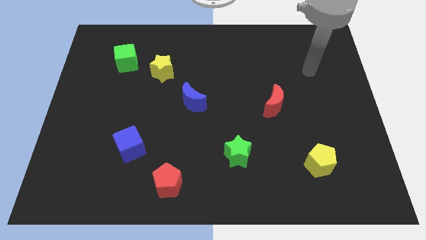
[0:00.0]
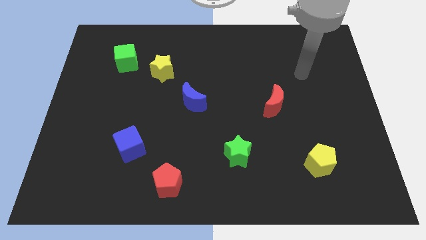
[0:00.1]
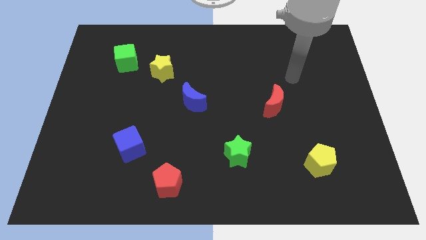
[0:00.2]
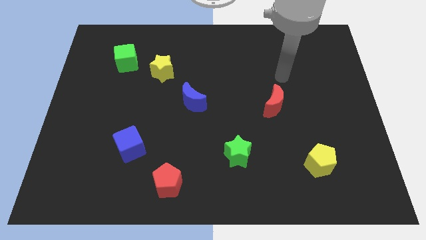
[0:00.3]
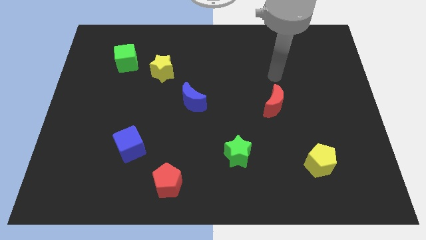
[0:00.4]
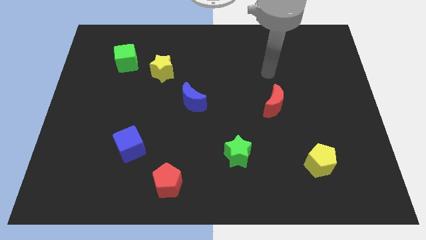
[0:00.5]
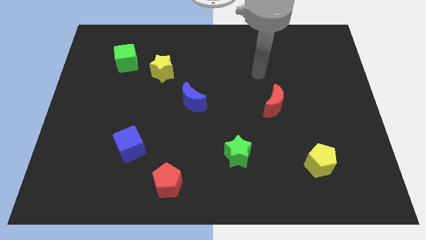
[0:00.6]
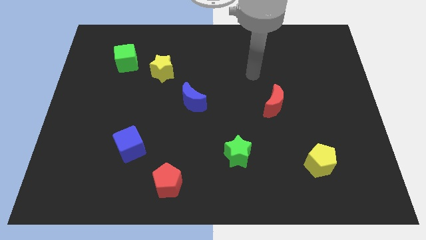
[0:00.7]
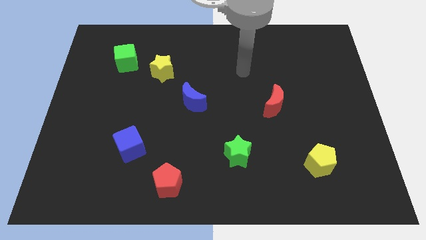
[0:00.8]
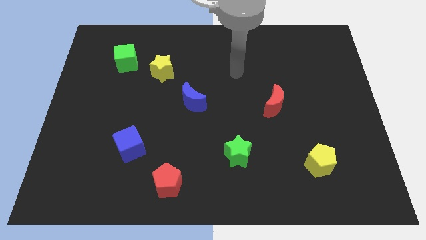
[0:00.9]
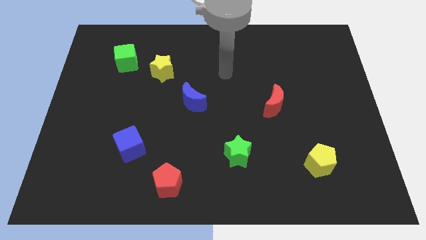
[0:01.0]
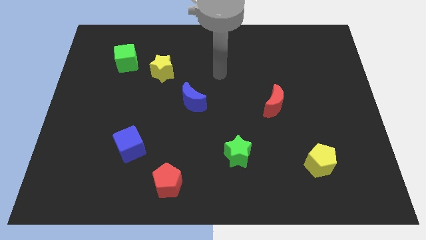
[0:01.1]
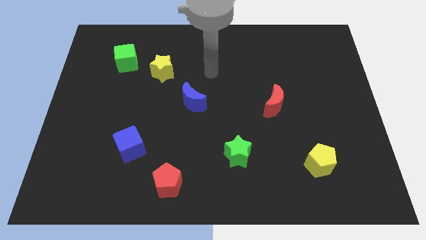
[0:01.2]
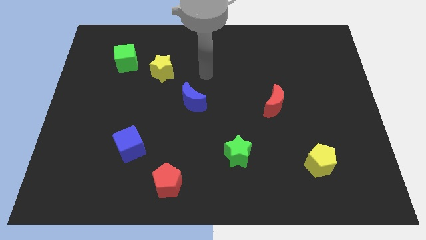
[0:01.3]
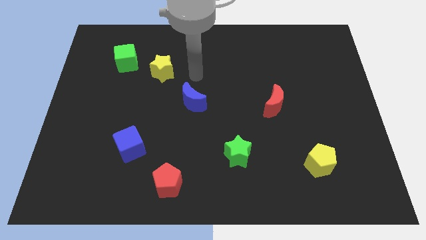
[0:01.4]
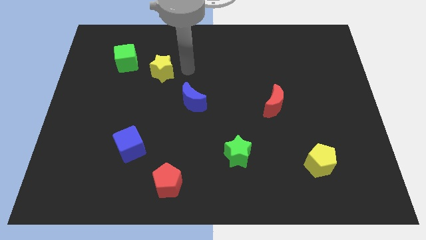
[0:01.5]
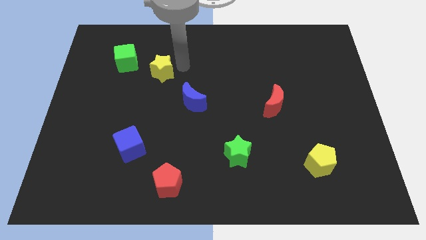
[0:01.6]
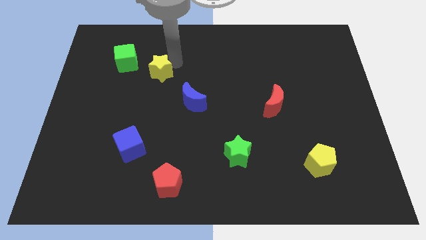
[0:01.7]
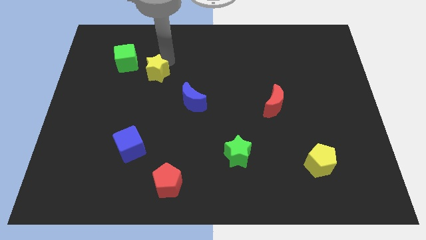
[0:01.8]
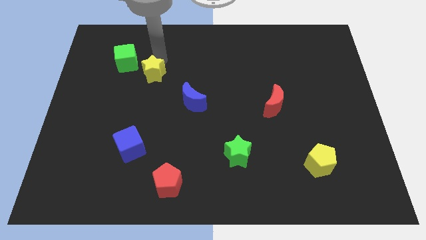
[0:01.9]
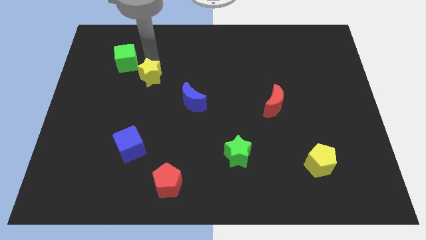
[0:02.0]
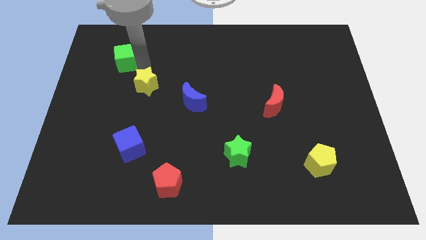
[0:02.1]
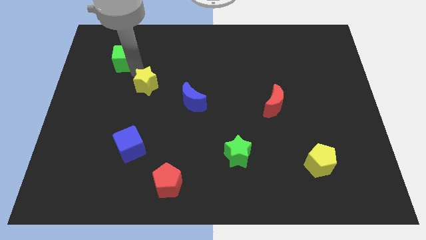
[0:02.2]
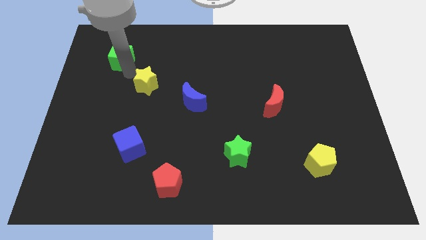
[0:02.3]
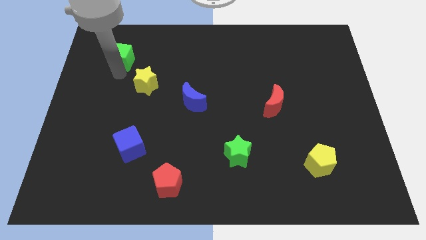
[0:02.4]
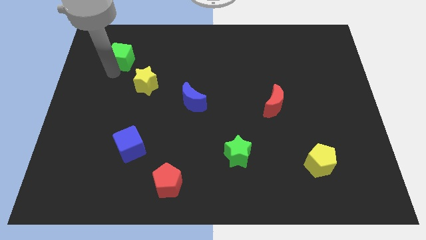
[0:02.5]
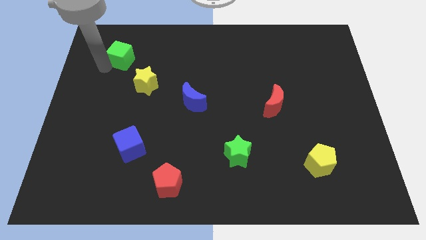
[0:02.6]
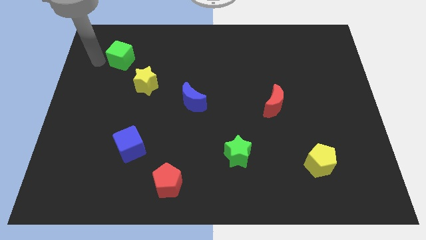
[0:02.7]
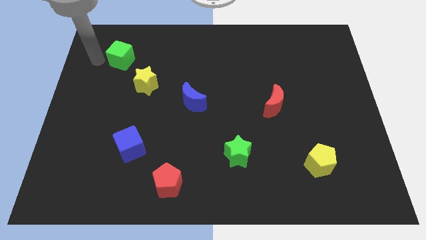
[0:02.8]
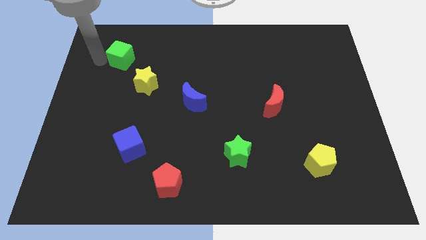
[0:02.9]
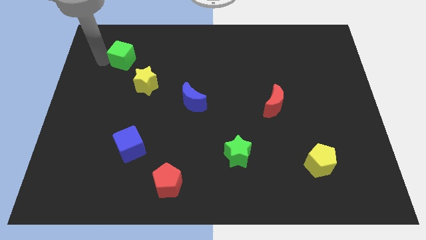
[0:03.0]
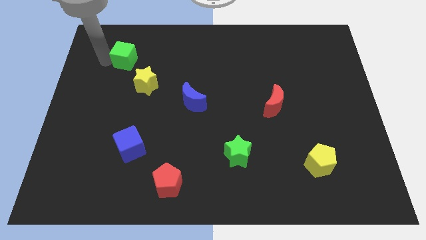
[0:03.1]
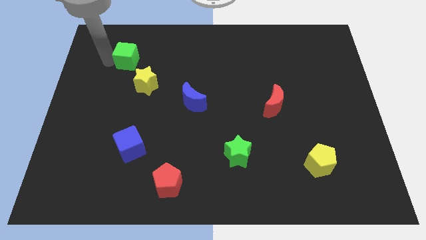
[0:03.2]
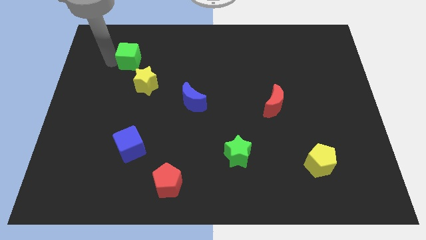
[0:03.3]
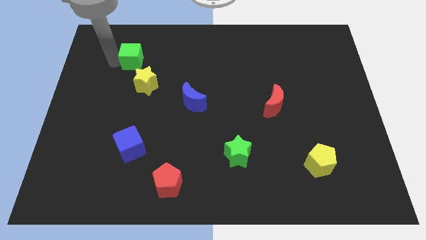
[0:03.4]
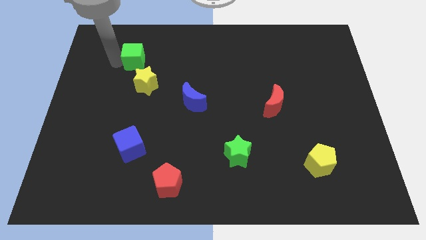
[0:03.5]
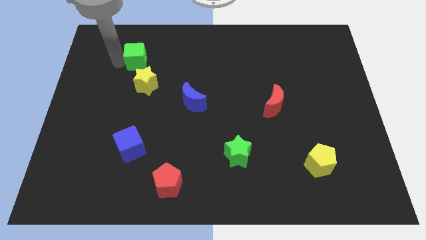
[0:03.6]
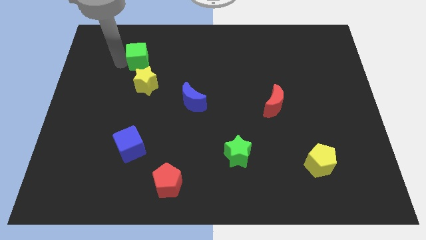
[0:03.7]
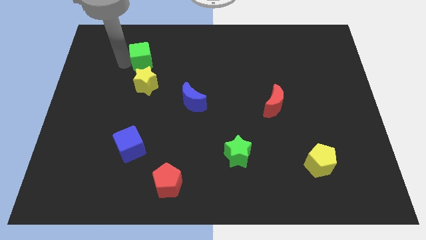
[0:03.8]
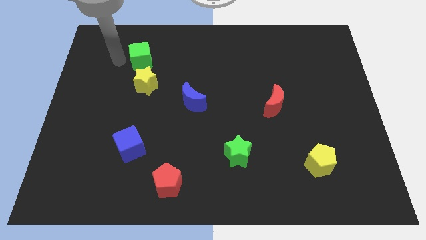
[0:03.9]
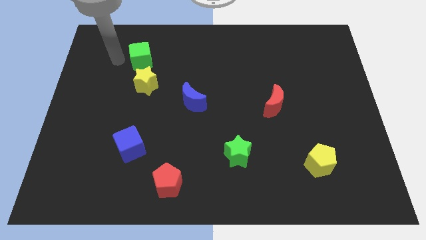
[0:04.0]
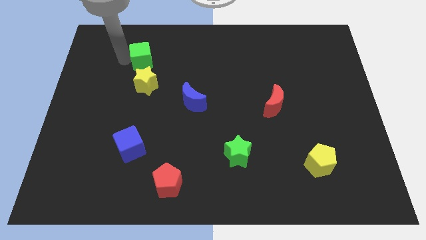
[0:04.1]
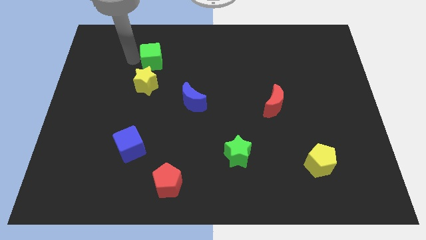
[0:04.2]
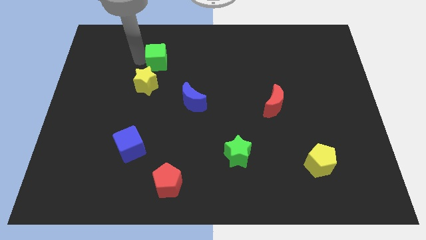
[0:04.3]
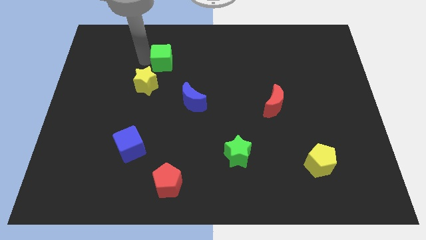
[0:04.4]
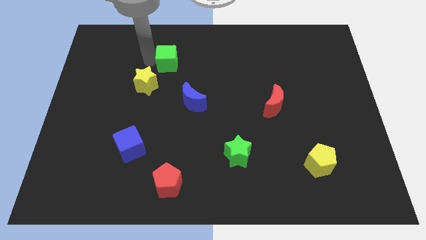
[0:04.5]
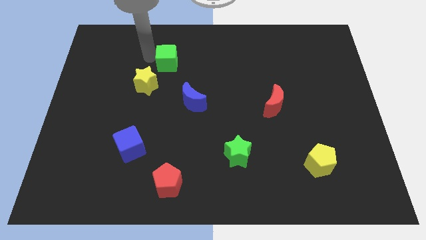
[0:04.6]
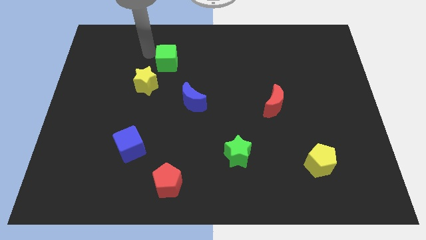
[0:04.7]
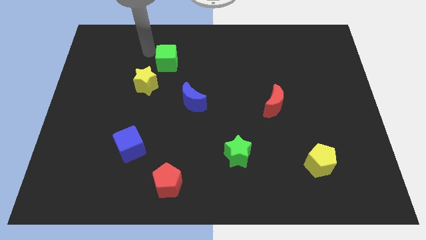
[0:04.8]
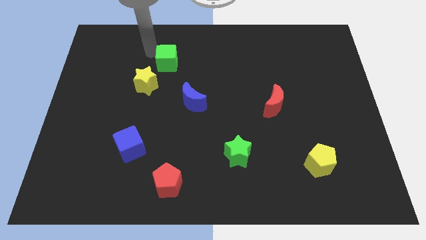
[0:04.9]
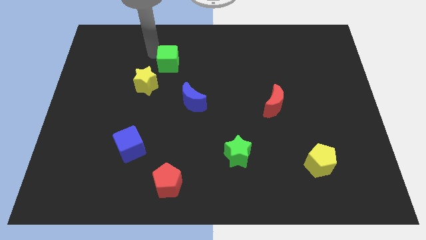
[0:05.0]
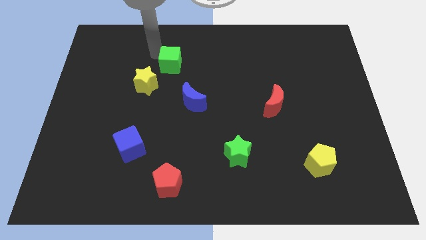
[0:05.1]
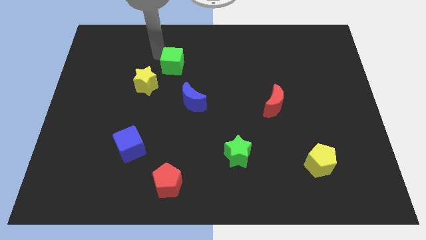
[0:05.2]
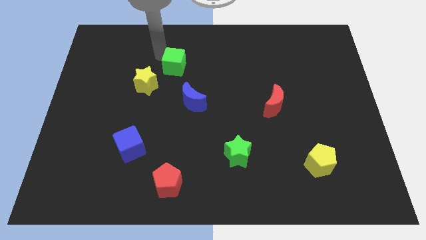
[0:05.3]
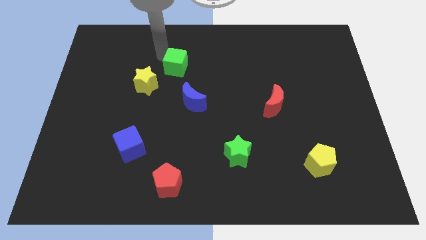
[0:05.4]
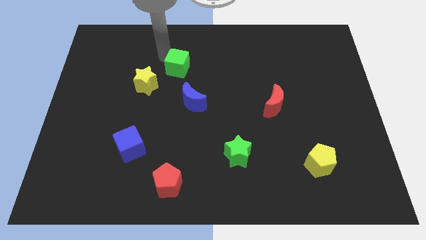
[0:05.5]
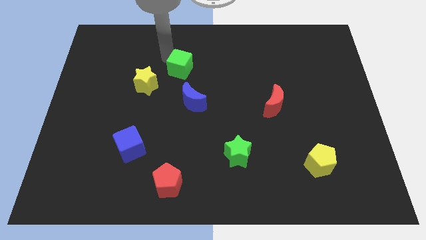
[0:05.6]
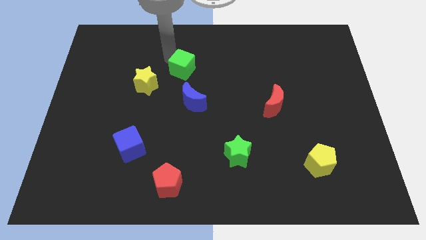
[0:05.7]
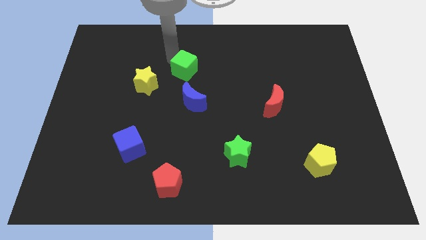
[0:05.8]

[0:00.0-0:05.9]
push the green cube to the middle
